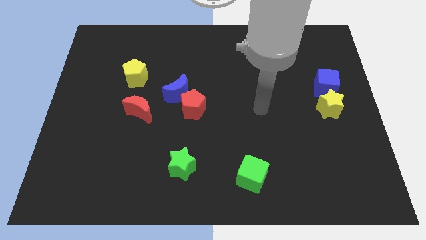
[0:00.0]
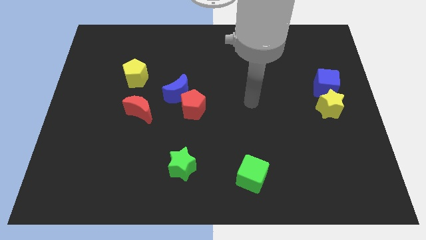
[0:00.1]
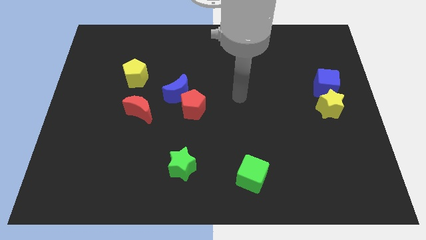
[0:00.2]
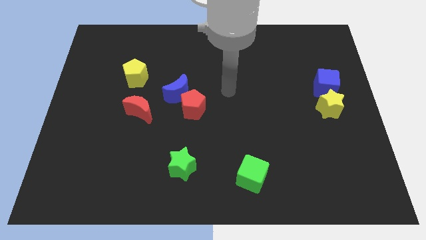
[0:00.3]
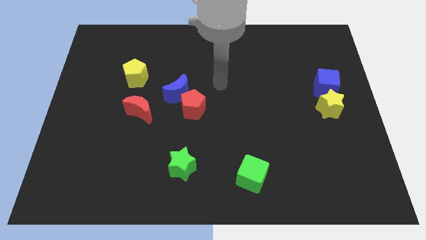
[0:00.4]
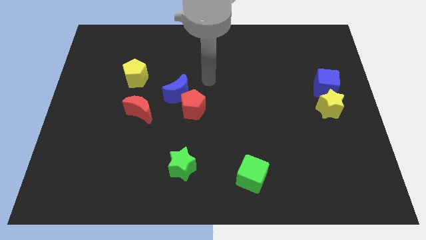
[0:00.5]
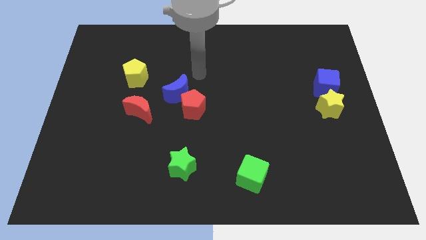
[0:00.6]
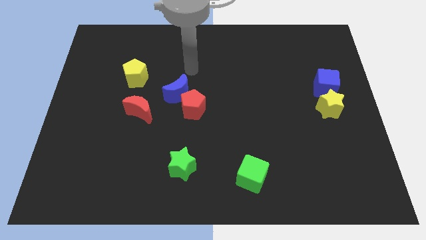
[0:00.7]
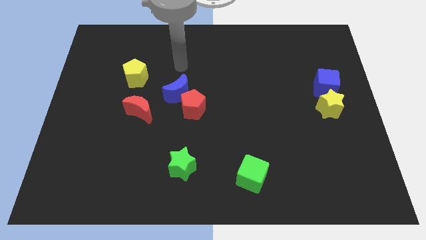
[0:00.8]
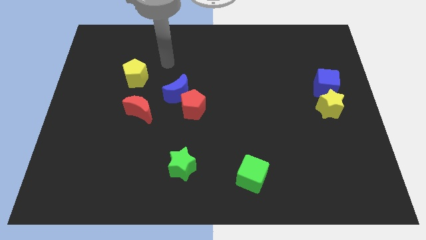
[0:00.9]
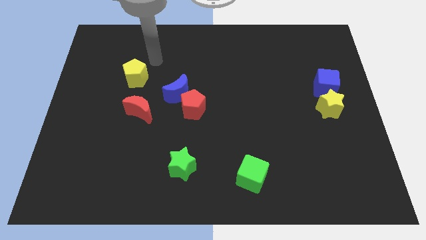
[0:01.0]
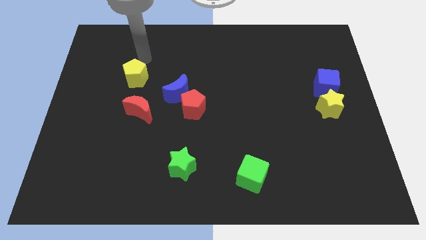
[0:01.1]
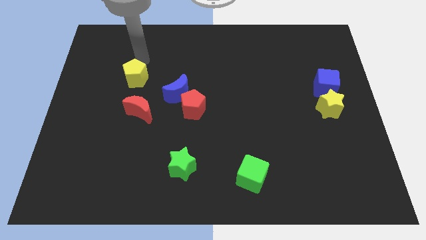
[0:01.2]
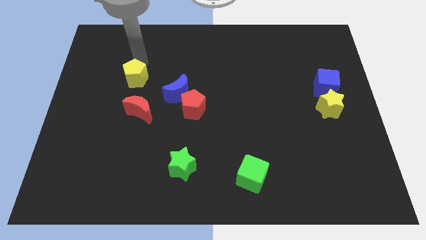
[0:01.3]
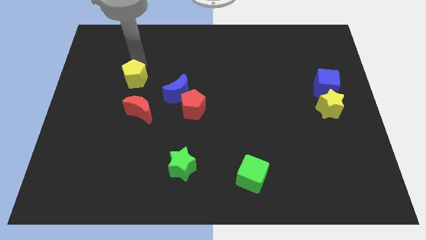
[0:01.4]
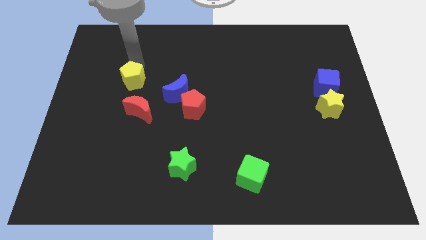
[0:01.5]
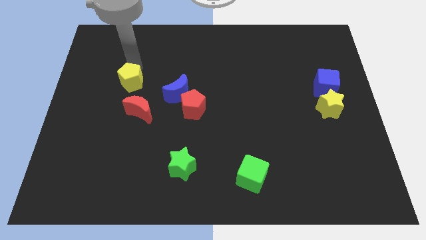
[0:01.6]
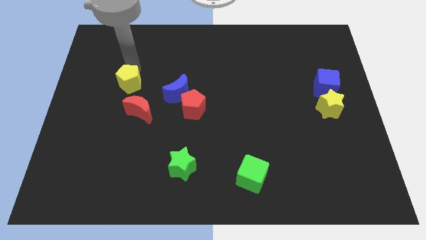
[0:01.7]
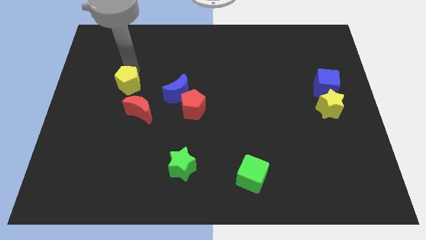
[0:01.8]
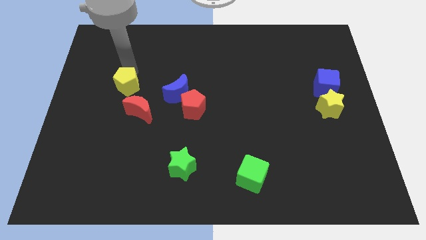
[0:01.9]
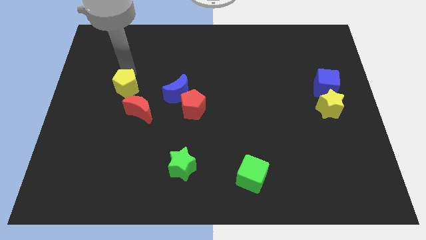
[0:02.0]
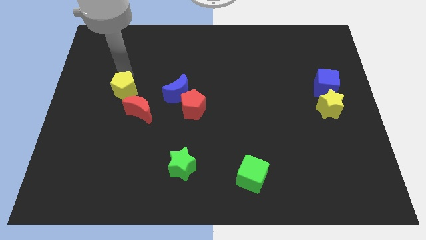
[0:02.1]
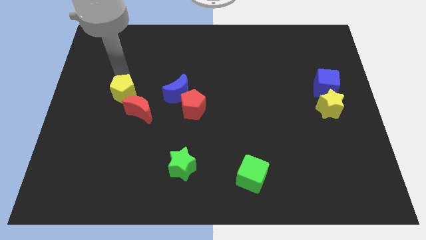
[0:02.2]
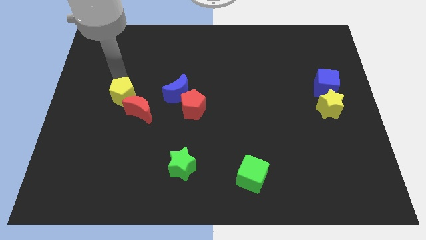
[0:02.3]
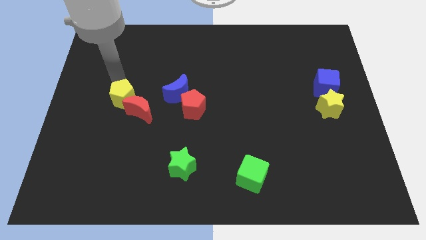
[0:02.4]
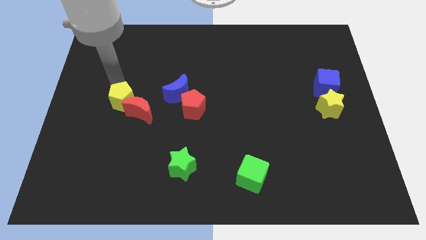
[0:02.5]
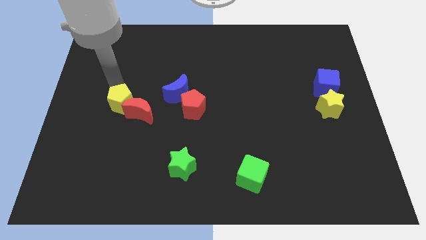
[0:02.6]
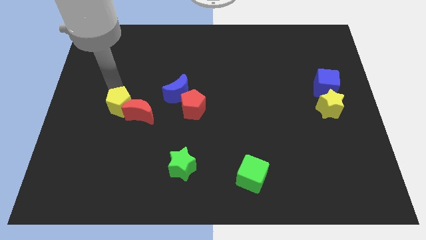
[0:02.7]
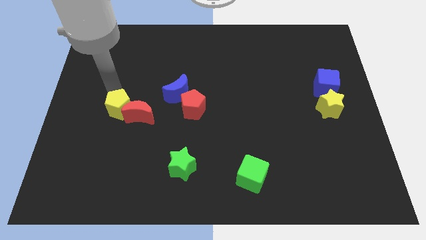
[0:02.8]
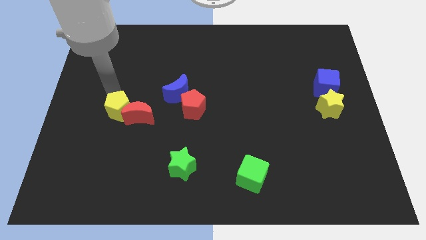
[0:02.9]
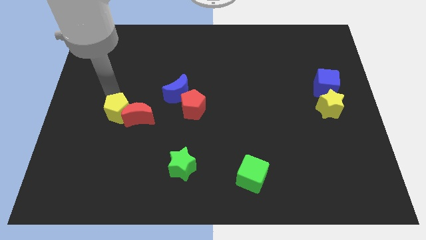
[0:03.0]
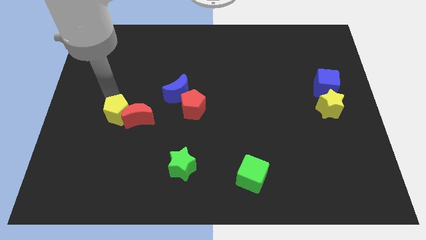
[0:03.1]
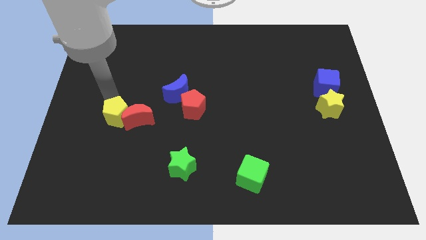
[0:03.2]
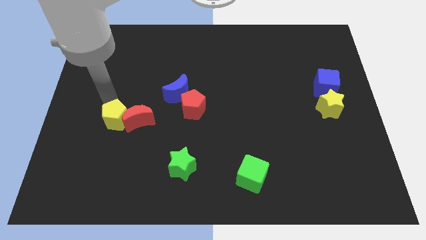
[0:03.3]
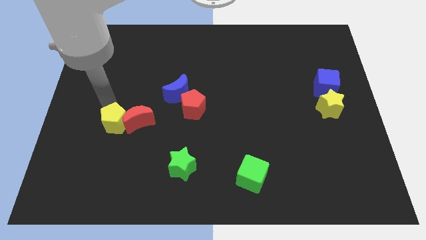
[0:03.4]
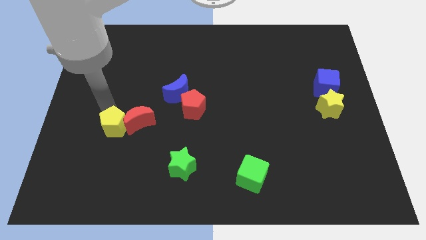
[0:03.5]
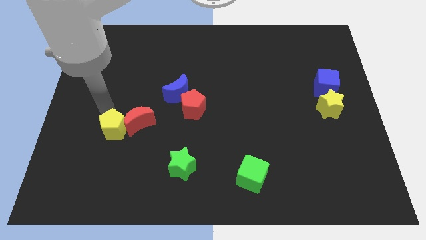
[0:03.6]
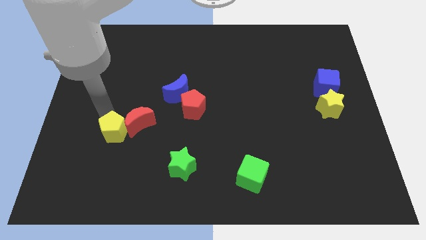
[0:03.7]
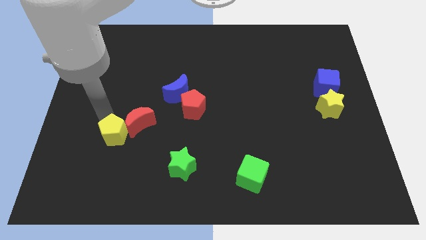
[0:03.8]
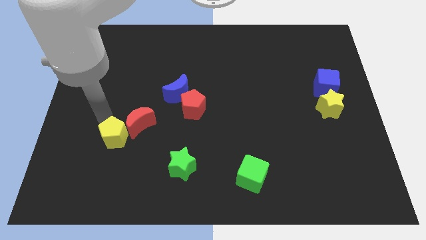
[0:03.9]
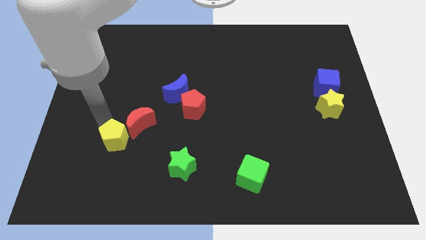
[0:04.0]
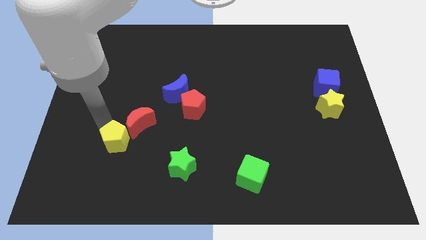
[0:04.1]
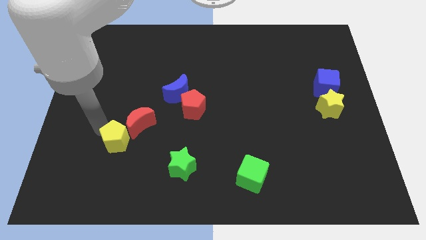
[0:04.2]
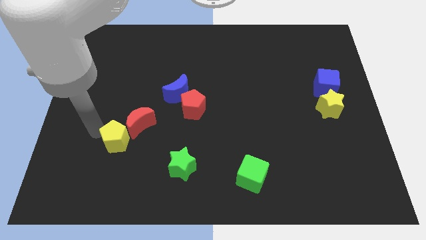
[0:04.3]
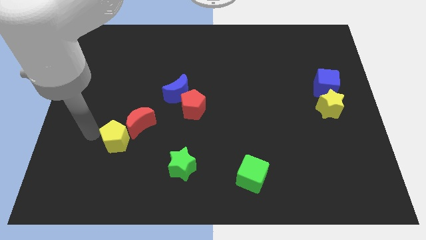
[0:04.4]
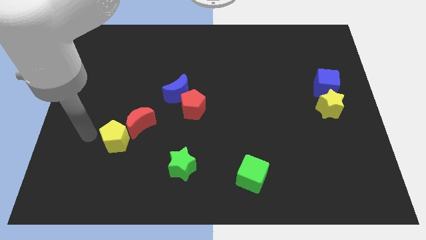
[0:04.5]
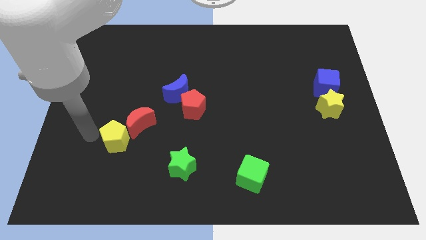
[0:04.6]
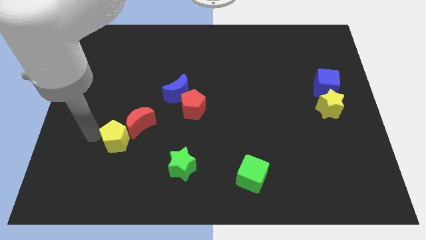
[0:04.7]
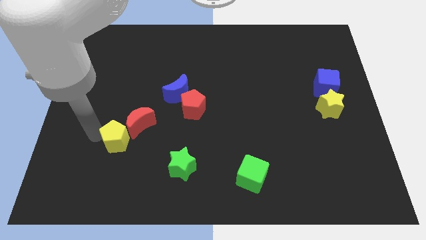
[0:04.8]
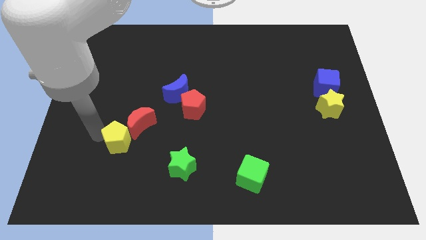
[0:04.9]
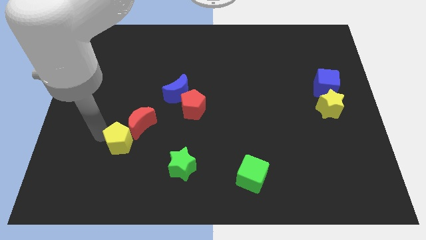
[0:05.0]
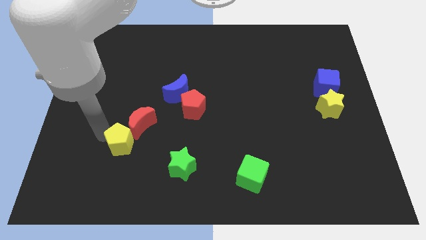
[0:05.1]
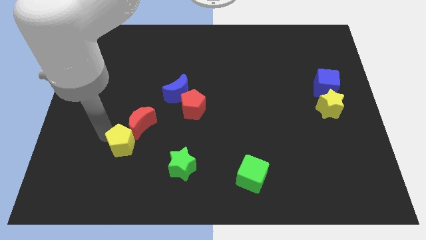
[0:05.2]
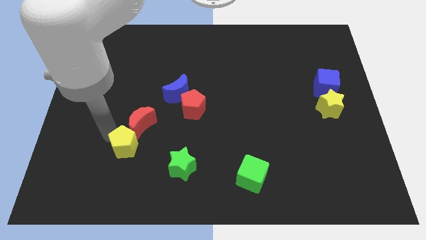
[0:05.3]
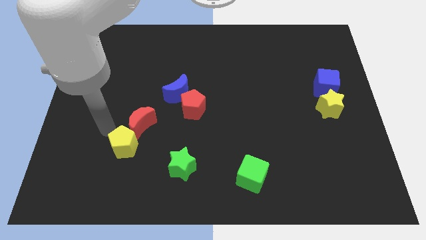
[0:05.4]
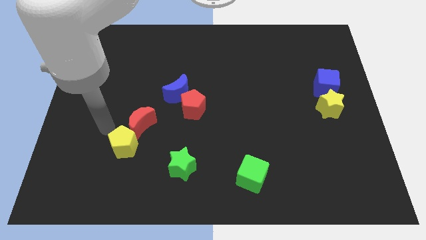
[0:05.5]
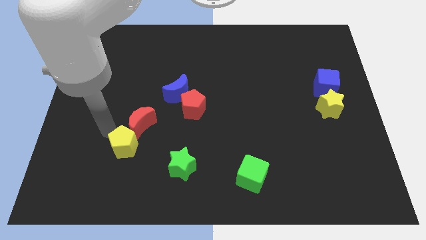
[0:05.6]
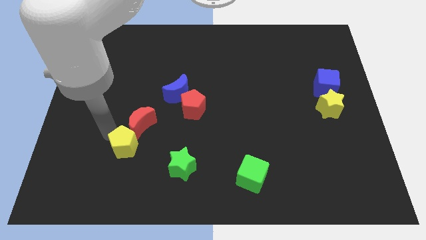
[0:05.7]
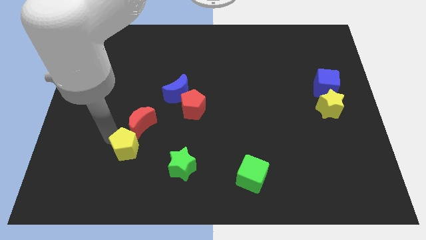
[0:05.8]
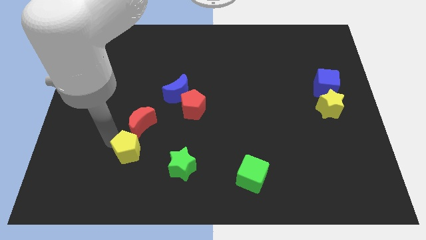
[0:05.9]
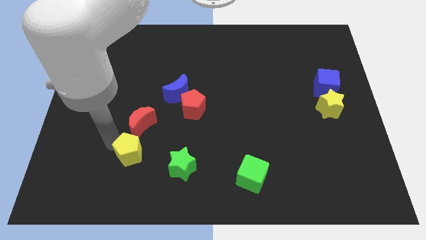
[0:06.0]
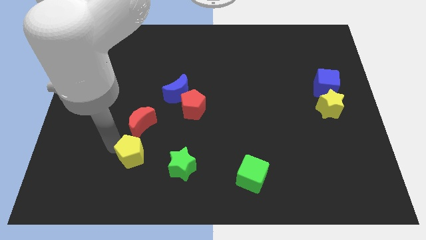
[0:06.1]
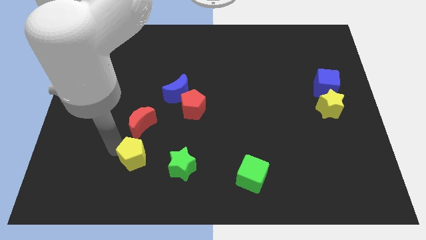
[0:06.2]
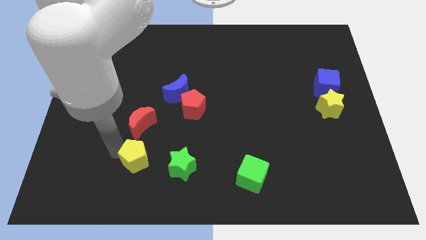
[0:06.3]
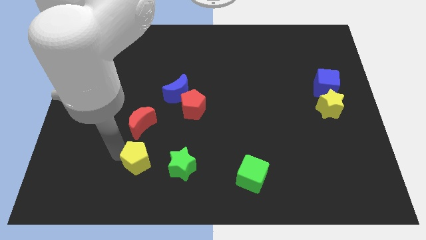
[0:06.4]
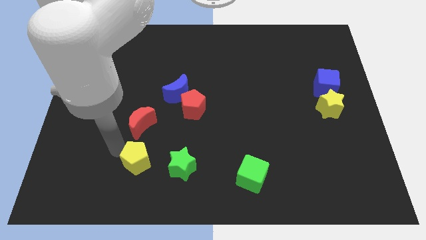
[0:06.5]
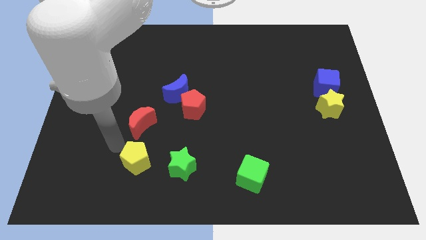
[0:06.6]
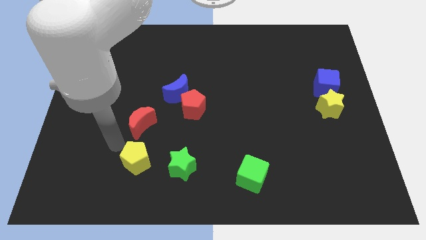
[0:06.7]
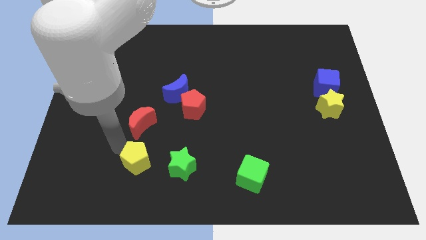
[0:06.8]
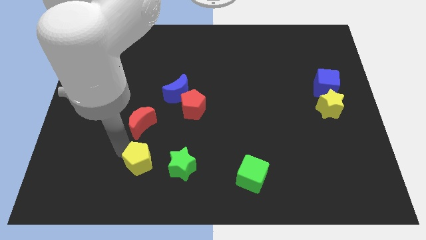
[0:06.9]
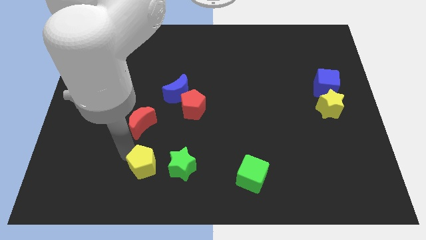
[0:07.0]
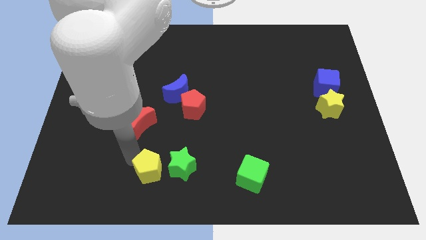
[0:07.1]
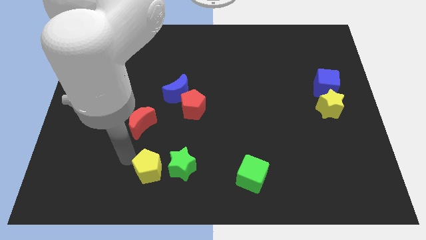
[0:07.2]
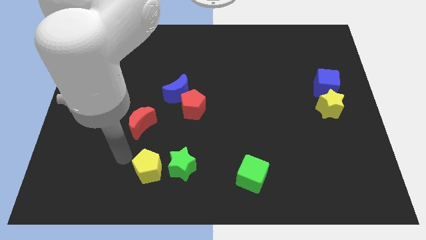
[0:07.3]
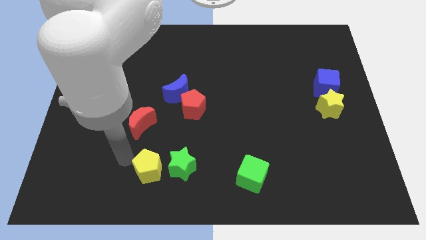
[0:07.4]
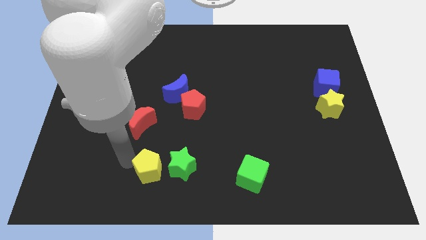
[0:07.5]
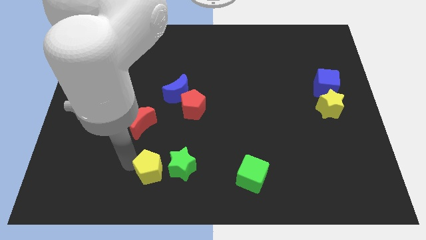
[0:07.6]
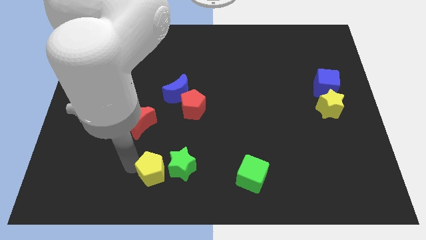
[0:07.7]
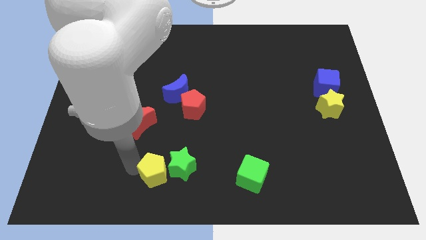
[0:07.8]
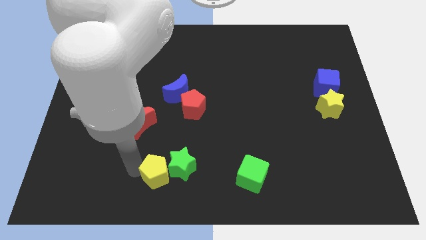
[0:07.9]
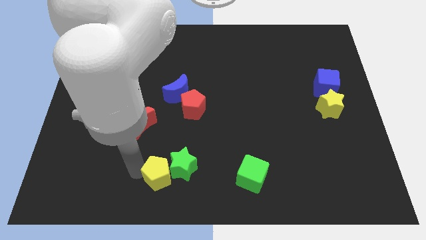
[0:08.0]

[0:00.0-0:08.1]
slide the yellow pentagon to the bottom
